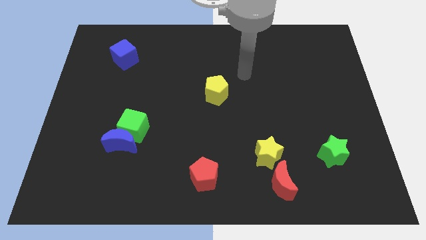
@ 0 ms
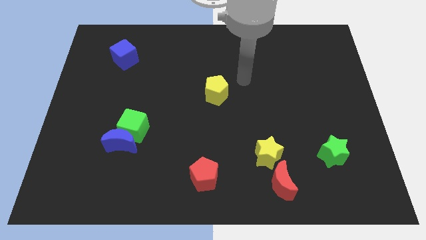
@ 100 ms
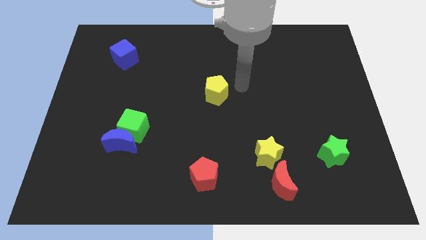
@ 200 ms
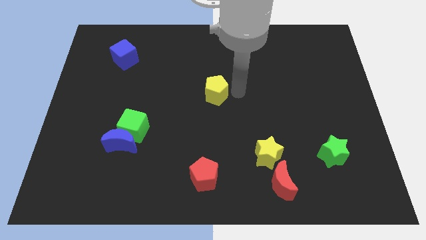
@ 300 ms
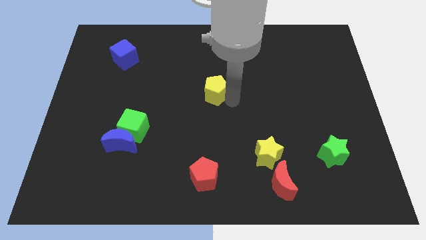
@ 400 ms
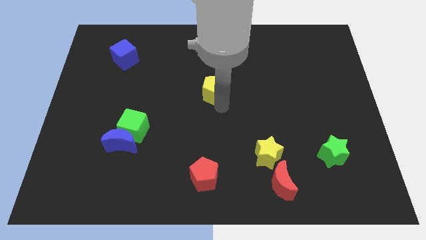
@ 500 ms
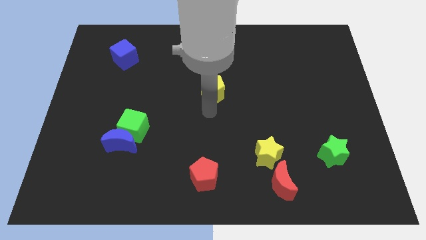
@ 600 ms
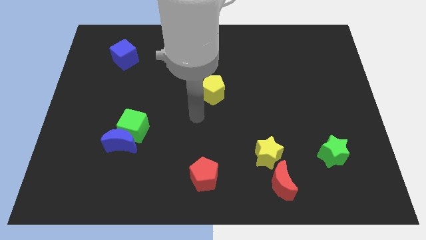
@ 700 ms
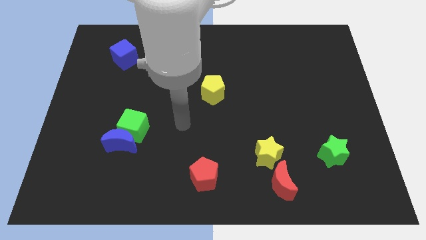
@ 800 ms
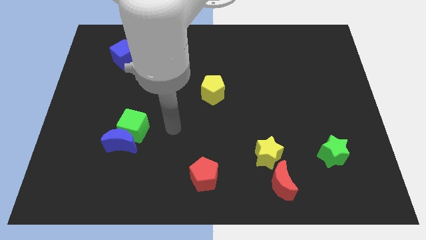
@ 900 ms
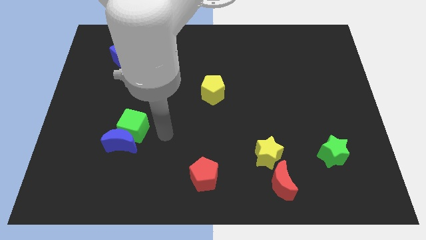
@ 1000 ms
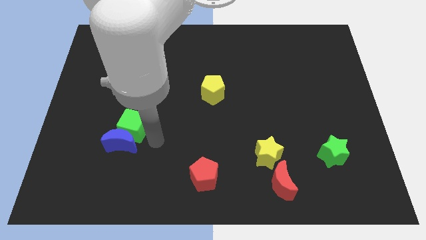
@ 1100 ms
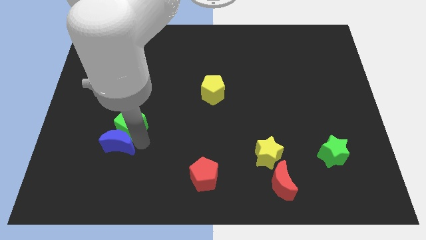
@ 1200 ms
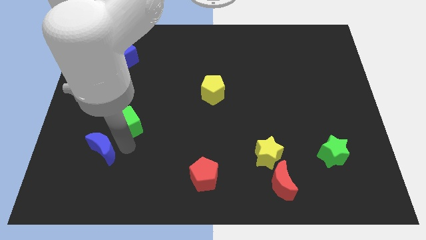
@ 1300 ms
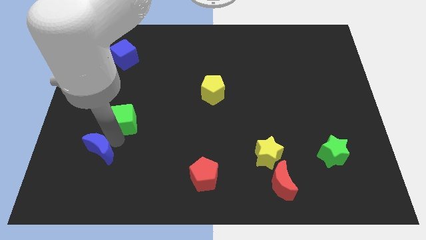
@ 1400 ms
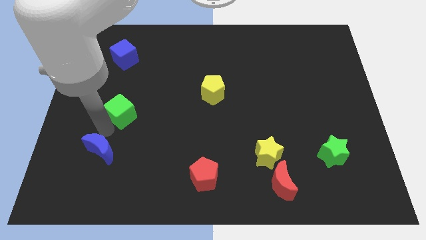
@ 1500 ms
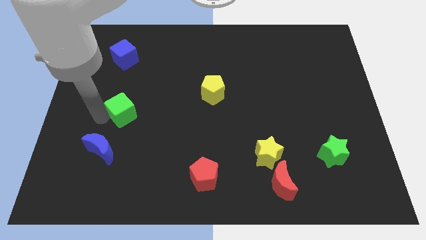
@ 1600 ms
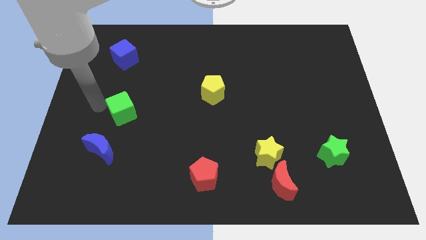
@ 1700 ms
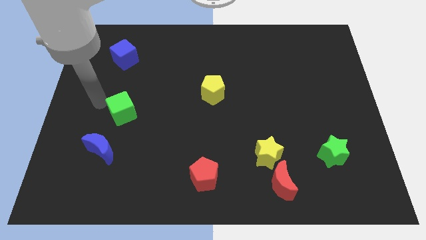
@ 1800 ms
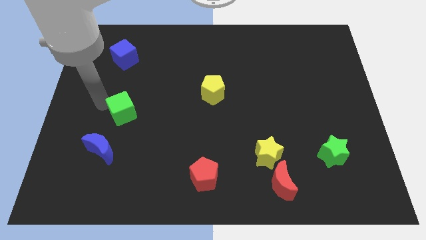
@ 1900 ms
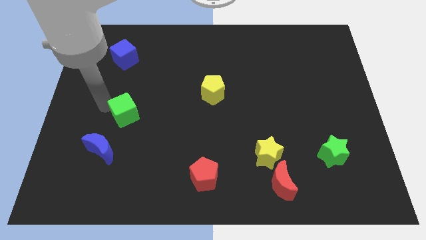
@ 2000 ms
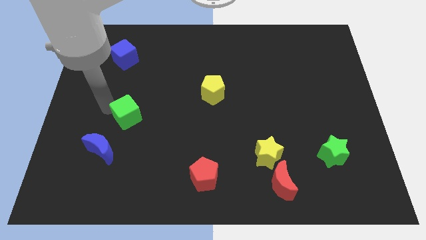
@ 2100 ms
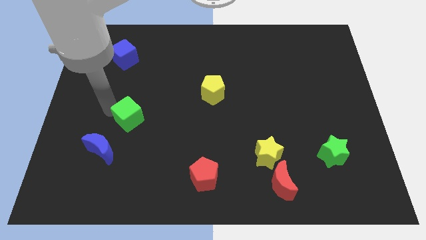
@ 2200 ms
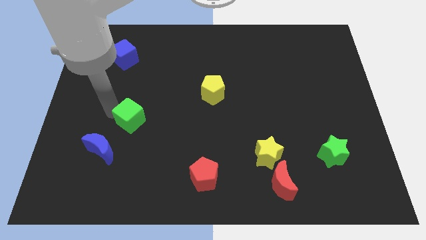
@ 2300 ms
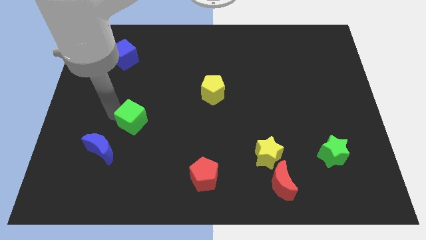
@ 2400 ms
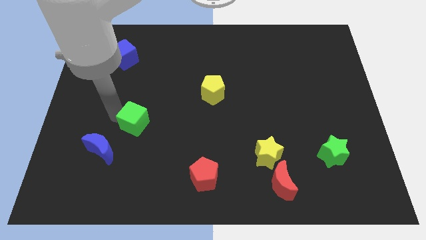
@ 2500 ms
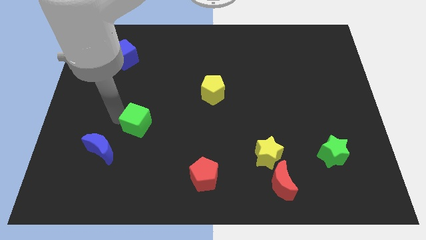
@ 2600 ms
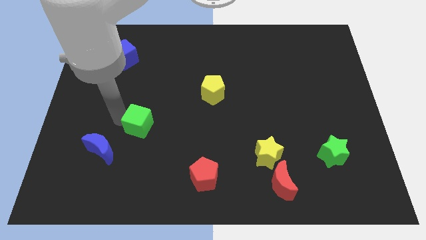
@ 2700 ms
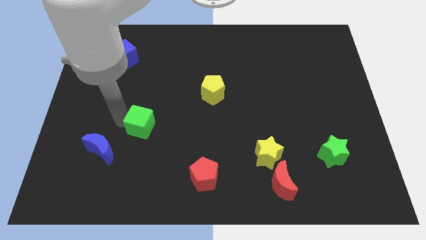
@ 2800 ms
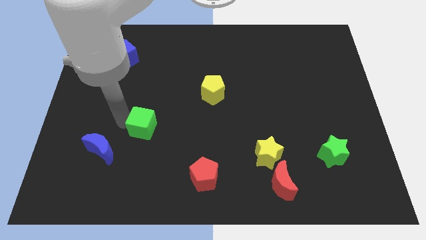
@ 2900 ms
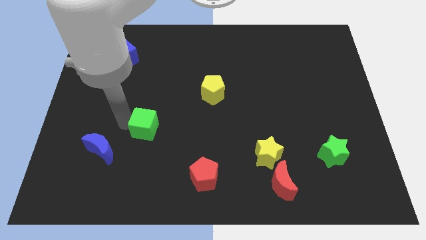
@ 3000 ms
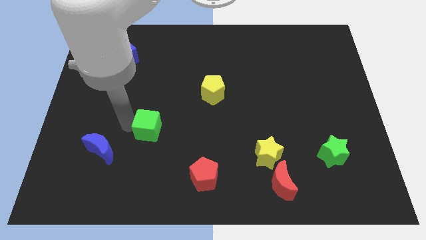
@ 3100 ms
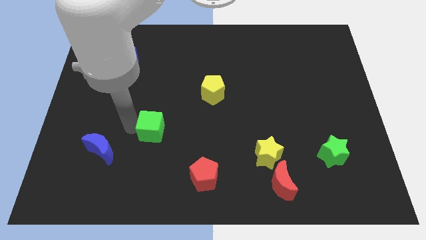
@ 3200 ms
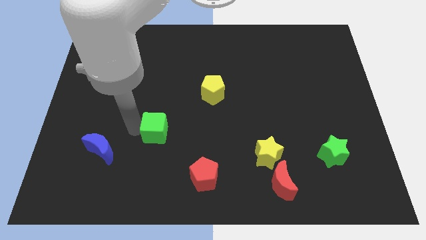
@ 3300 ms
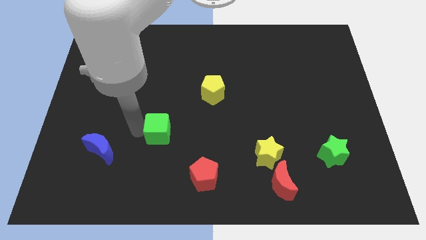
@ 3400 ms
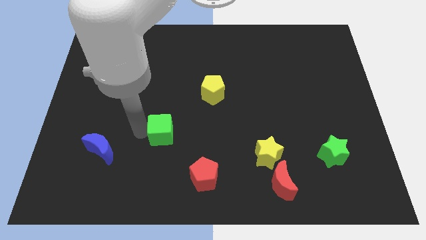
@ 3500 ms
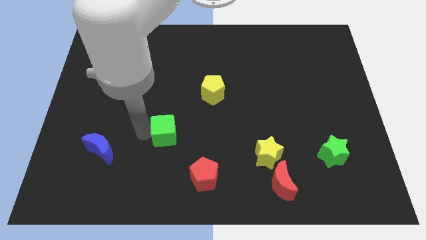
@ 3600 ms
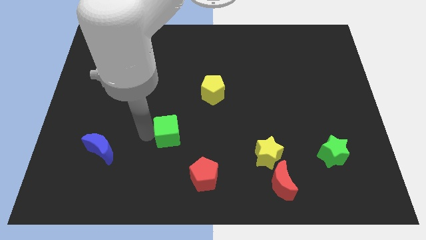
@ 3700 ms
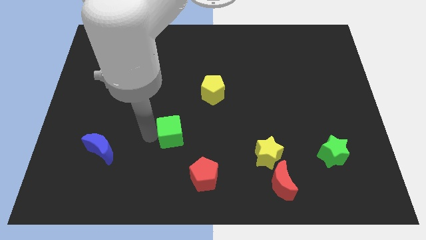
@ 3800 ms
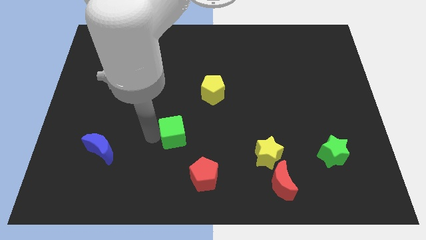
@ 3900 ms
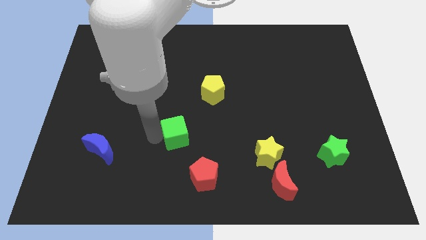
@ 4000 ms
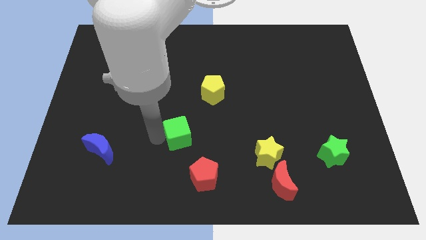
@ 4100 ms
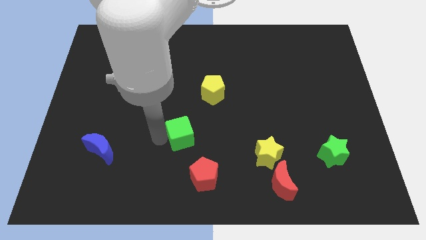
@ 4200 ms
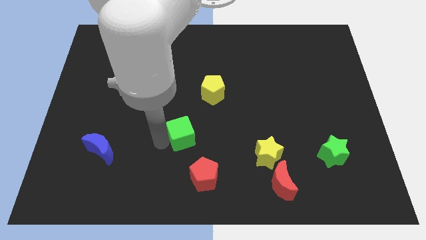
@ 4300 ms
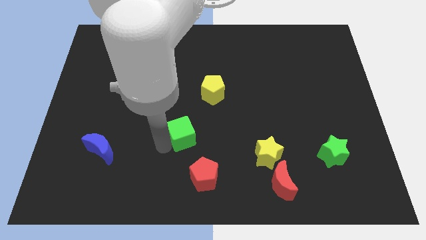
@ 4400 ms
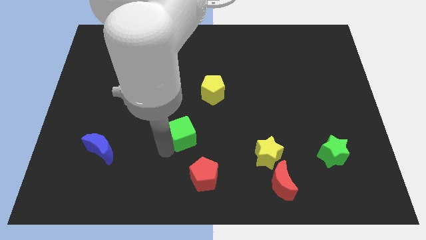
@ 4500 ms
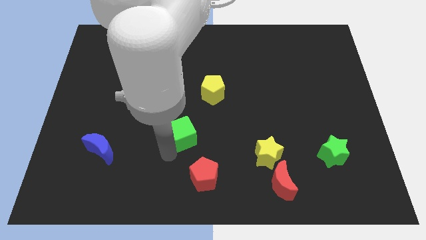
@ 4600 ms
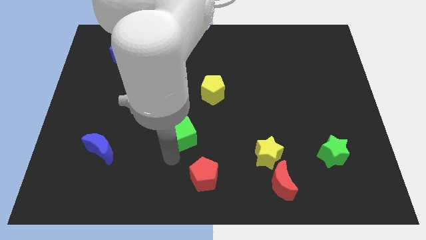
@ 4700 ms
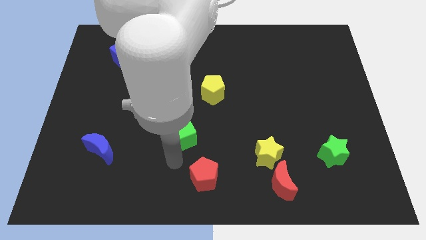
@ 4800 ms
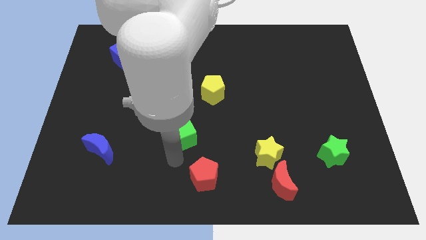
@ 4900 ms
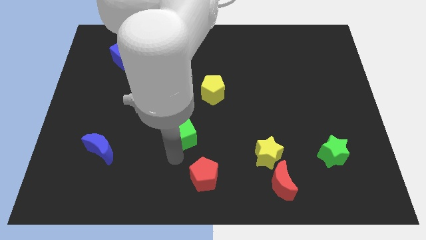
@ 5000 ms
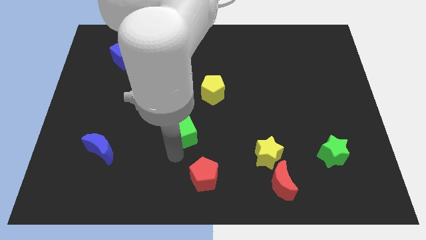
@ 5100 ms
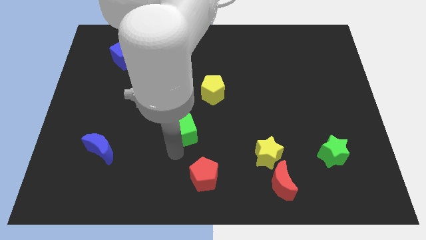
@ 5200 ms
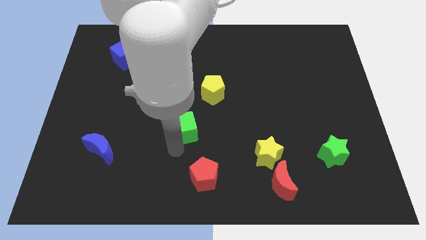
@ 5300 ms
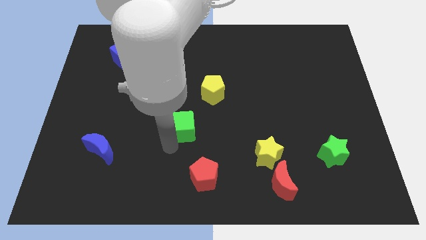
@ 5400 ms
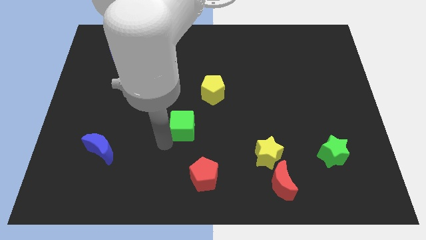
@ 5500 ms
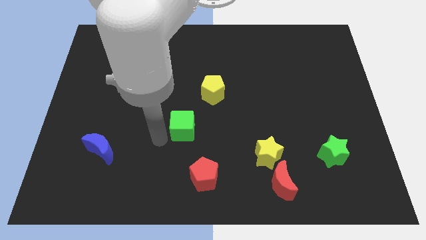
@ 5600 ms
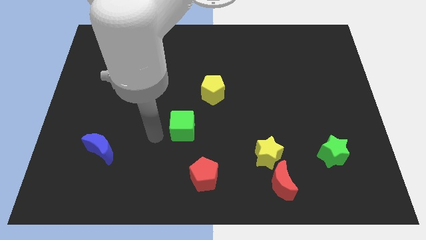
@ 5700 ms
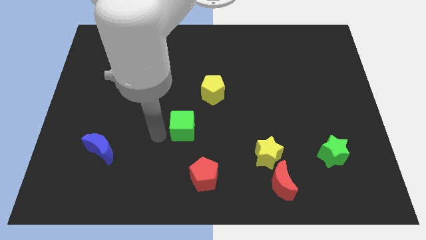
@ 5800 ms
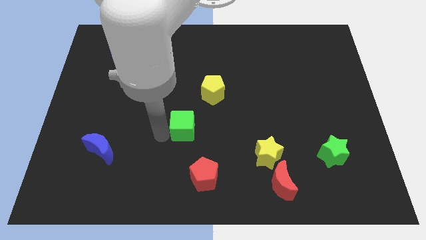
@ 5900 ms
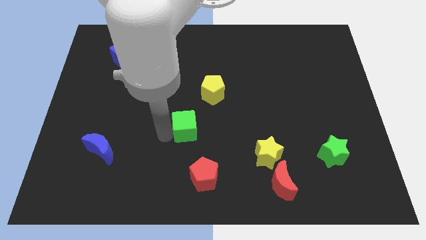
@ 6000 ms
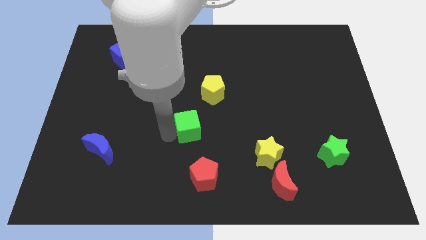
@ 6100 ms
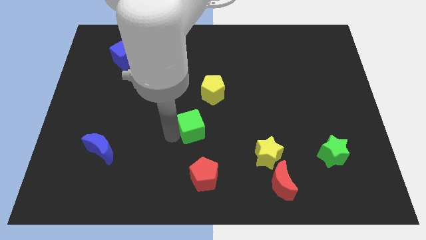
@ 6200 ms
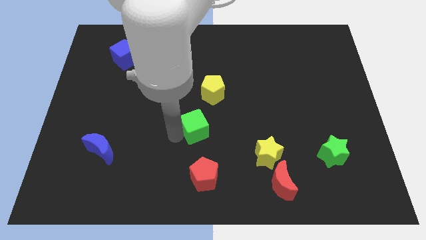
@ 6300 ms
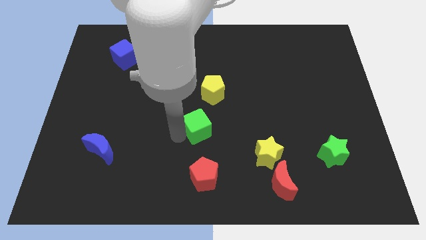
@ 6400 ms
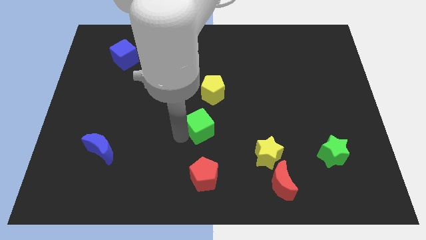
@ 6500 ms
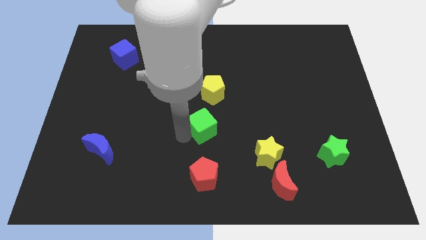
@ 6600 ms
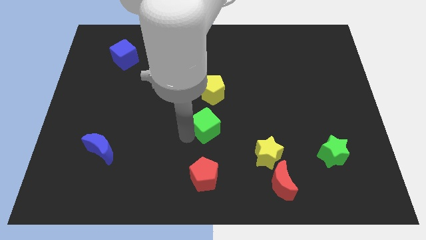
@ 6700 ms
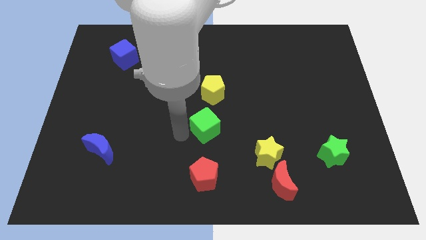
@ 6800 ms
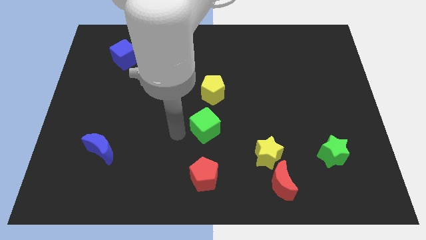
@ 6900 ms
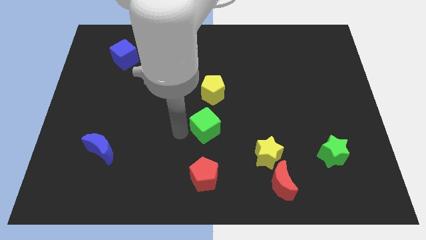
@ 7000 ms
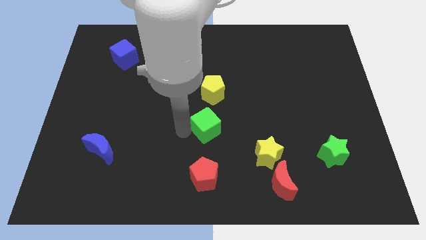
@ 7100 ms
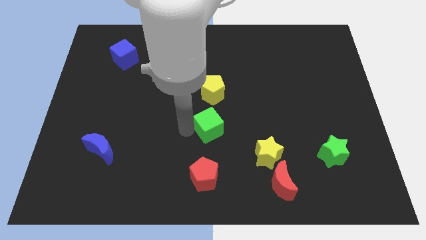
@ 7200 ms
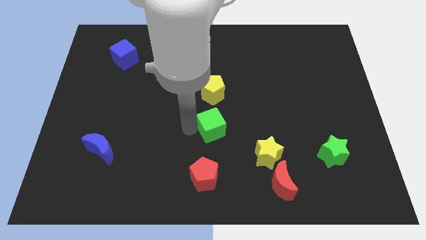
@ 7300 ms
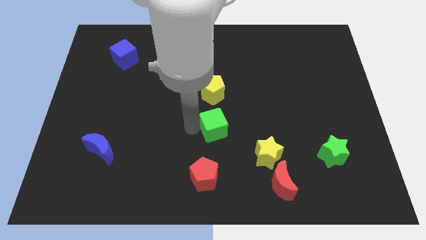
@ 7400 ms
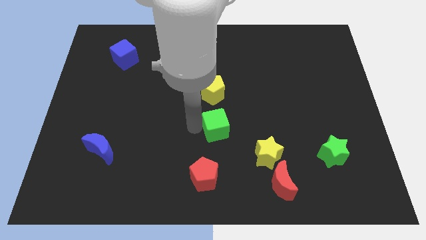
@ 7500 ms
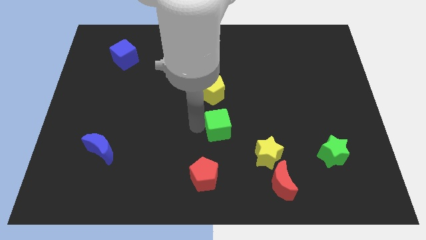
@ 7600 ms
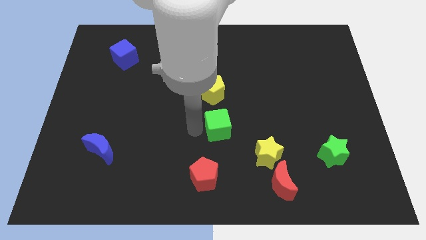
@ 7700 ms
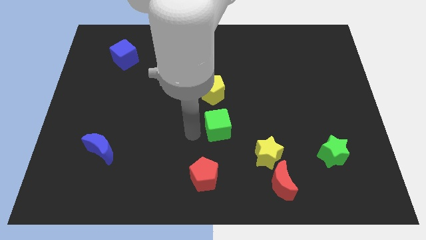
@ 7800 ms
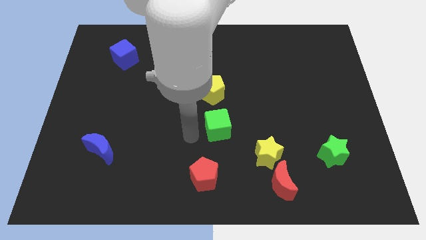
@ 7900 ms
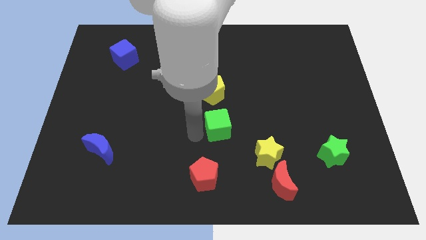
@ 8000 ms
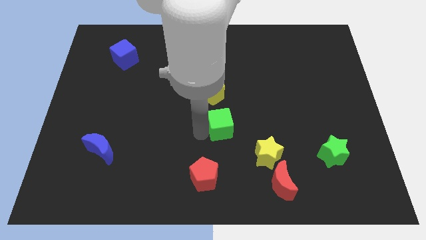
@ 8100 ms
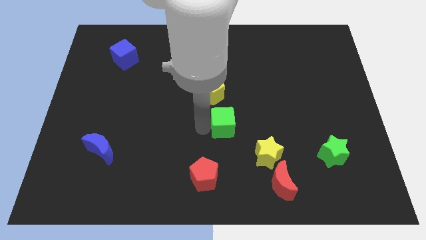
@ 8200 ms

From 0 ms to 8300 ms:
slide the green cube to the right
